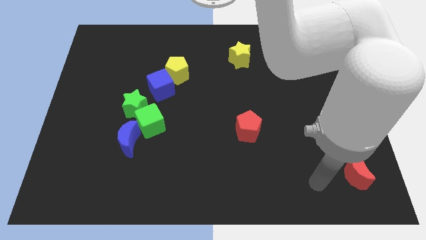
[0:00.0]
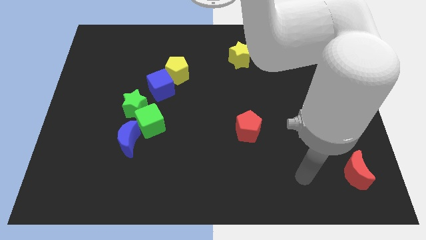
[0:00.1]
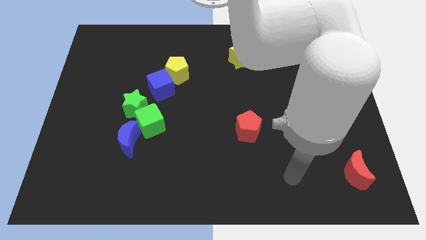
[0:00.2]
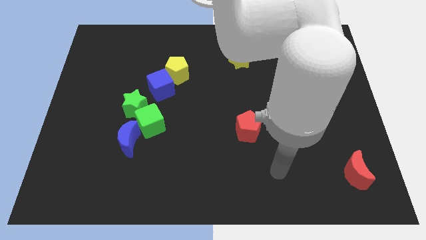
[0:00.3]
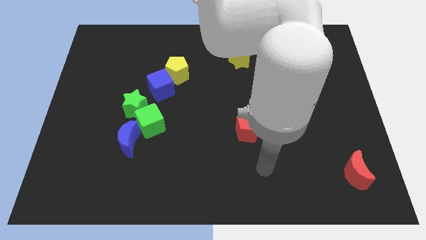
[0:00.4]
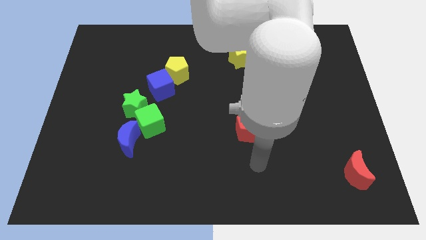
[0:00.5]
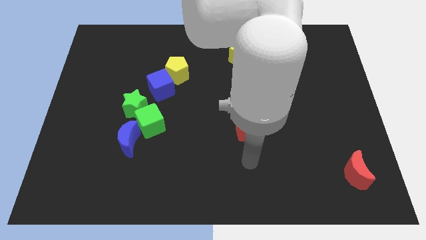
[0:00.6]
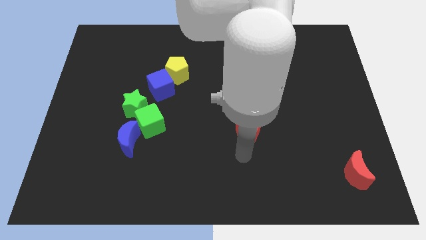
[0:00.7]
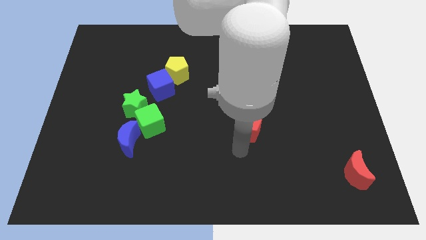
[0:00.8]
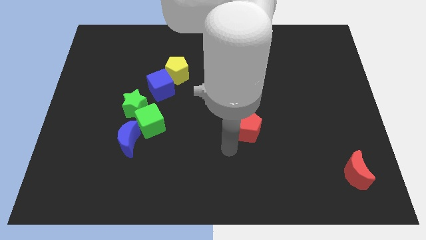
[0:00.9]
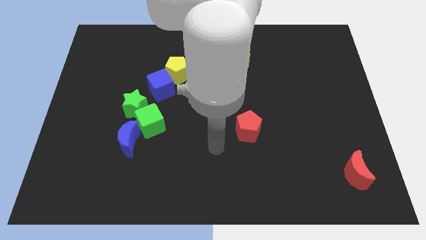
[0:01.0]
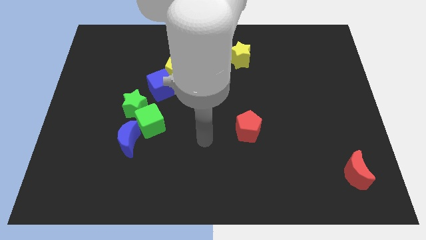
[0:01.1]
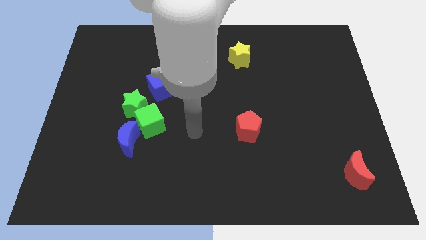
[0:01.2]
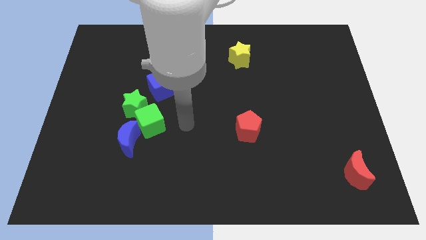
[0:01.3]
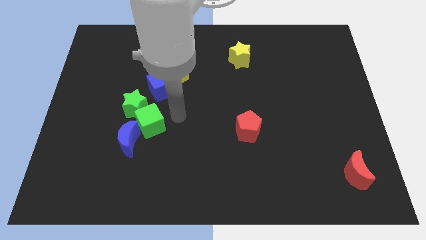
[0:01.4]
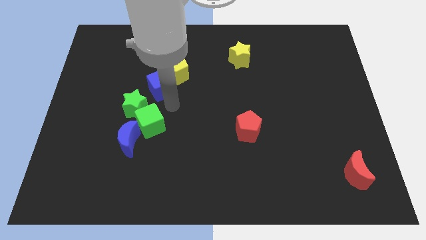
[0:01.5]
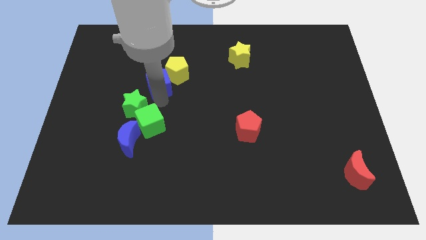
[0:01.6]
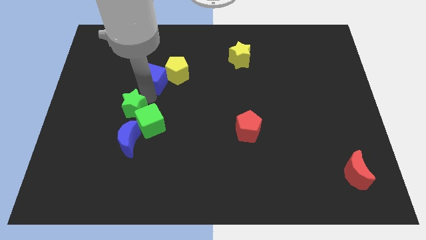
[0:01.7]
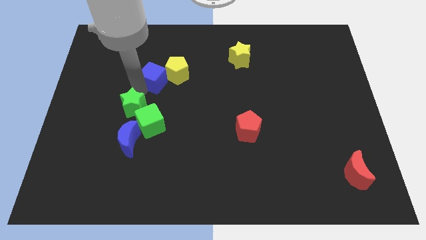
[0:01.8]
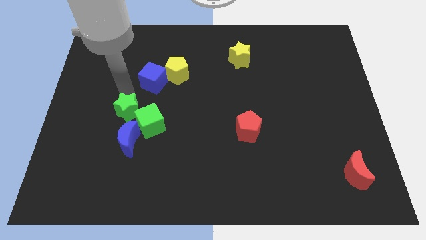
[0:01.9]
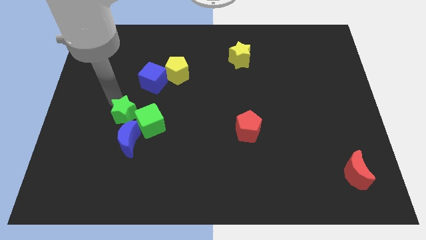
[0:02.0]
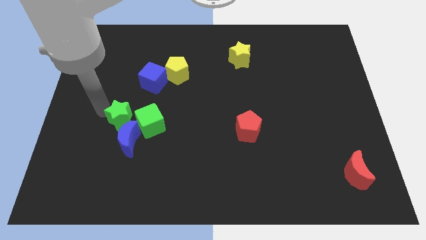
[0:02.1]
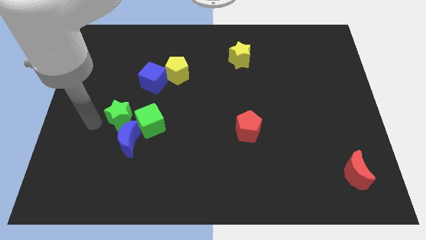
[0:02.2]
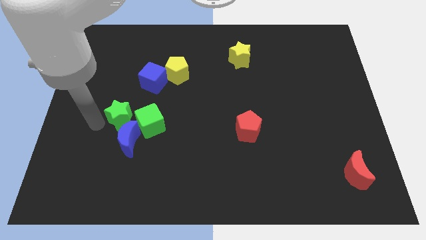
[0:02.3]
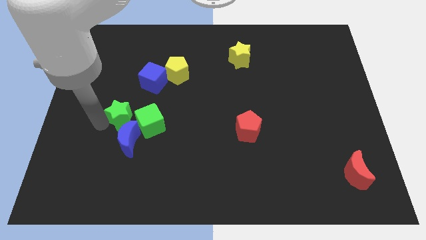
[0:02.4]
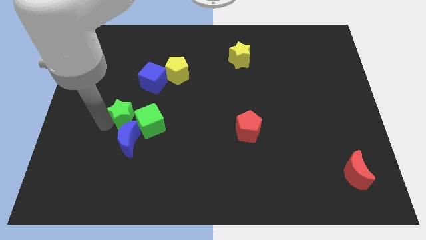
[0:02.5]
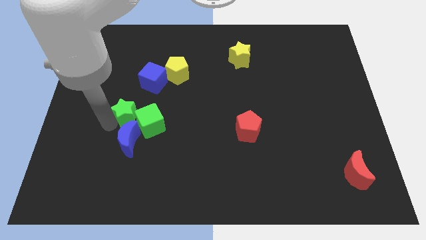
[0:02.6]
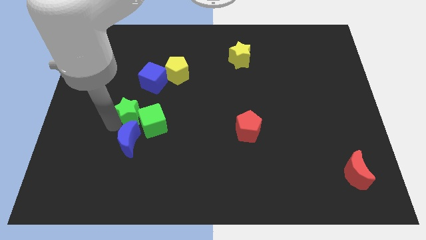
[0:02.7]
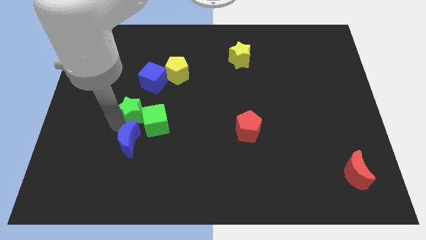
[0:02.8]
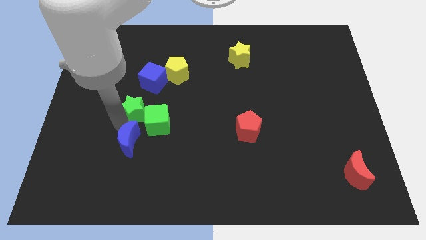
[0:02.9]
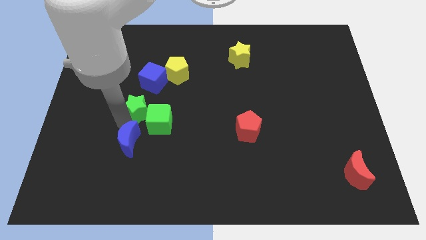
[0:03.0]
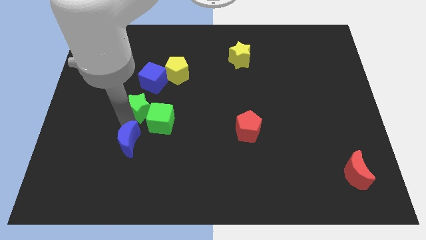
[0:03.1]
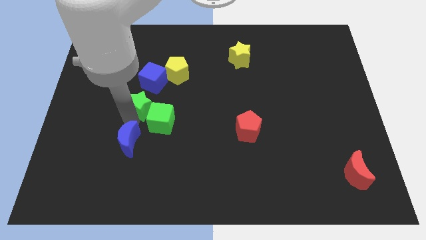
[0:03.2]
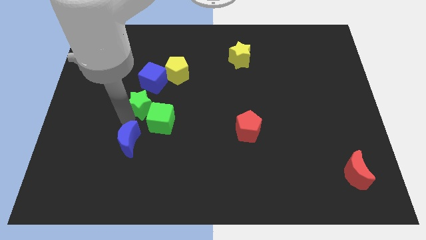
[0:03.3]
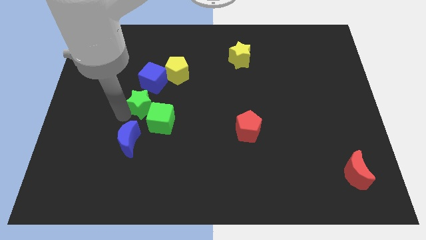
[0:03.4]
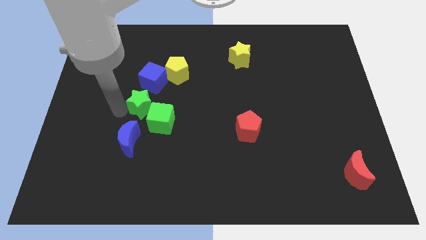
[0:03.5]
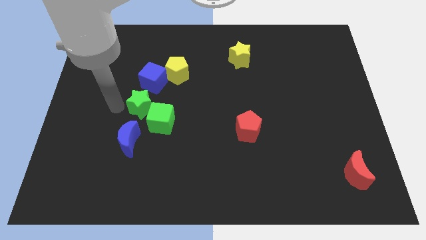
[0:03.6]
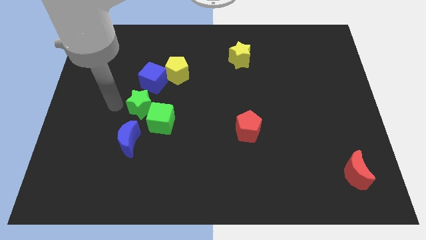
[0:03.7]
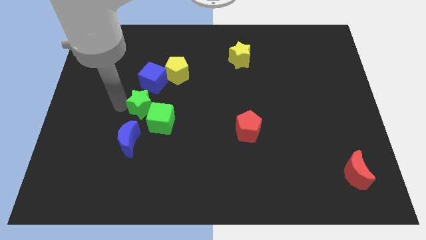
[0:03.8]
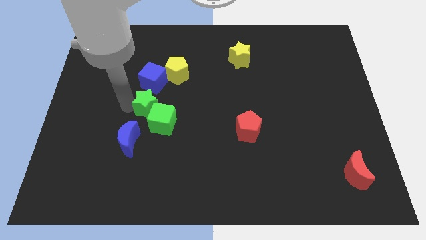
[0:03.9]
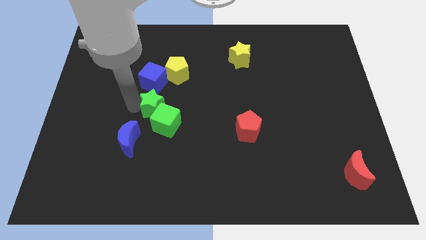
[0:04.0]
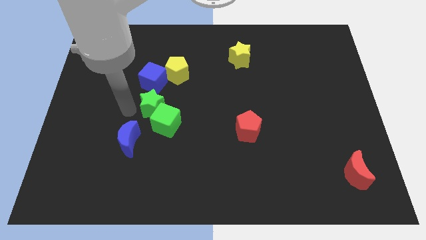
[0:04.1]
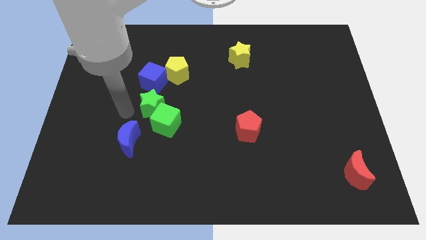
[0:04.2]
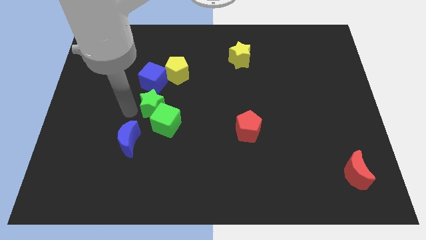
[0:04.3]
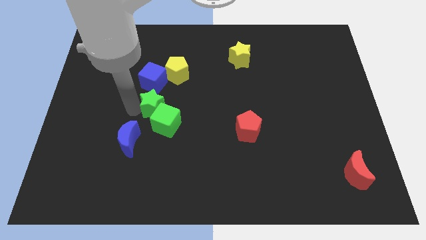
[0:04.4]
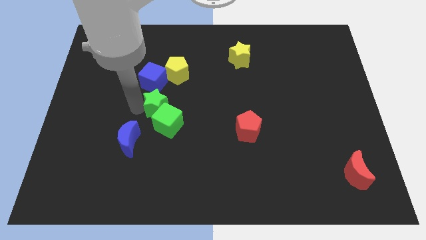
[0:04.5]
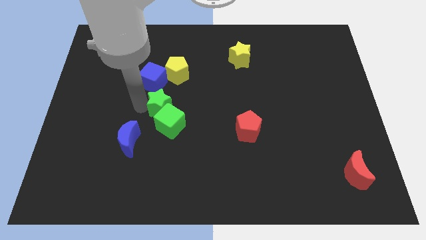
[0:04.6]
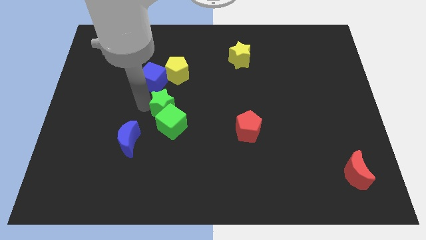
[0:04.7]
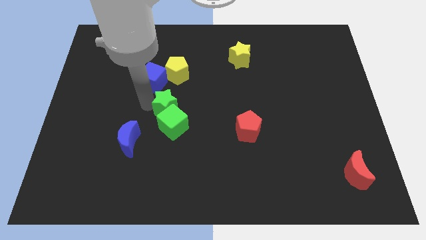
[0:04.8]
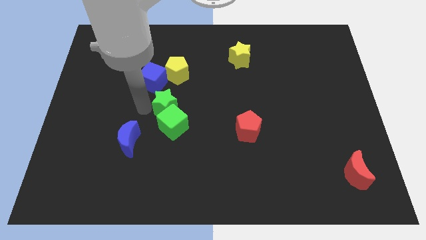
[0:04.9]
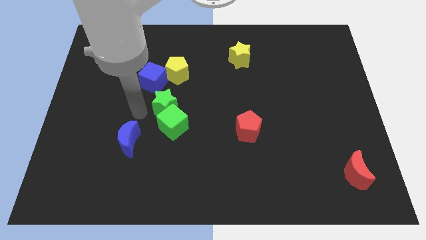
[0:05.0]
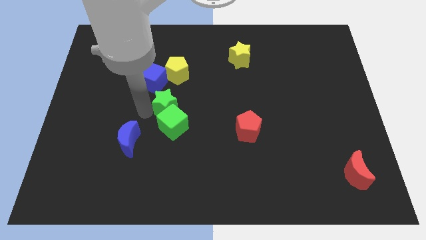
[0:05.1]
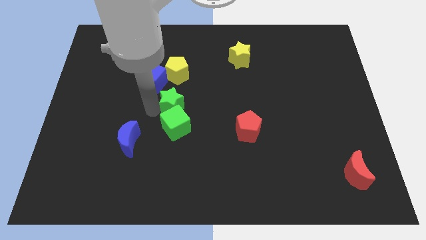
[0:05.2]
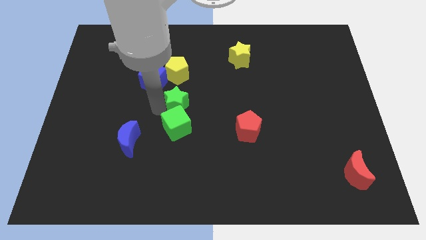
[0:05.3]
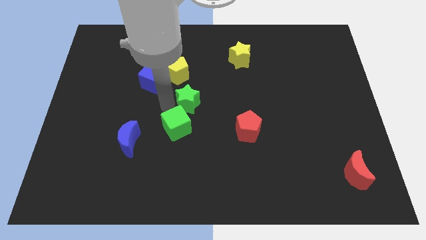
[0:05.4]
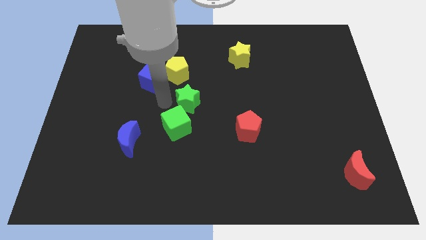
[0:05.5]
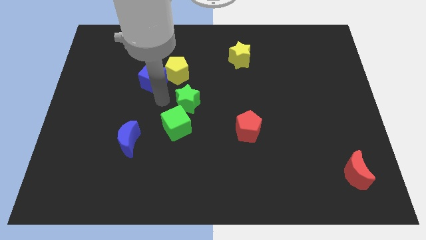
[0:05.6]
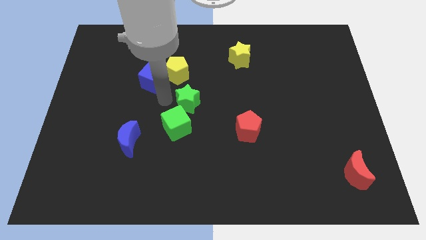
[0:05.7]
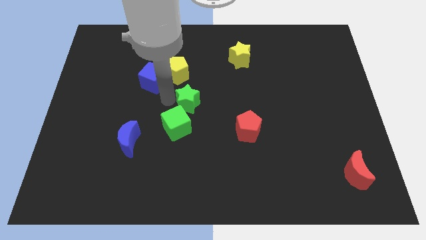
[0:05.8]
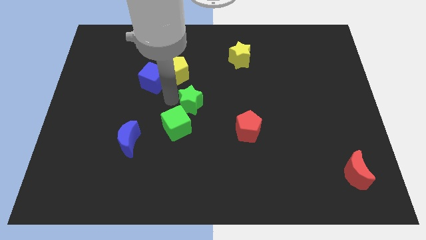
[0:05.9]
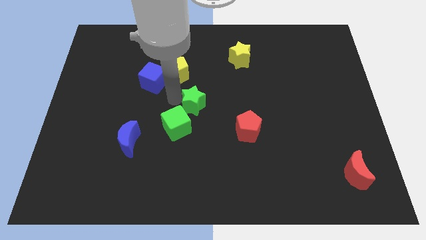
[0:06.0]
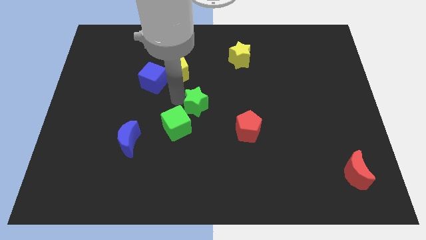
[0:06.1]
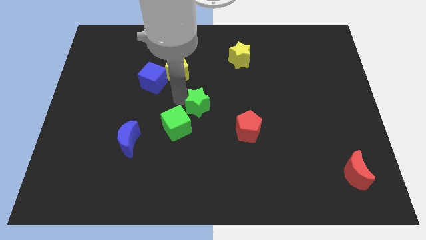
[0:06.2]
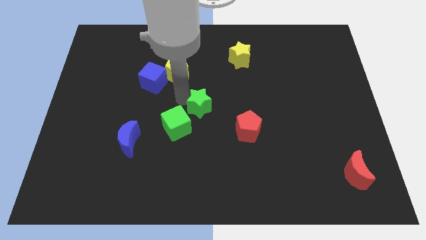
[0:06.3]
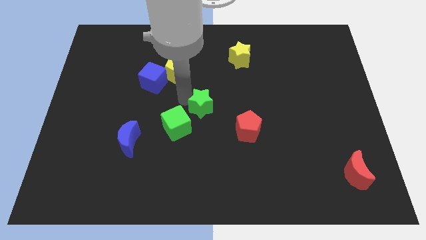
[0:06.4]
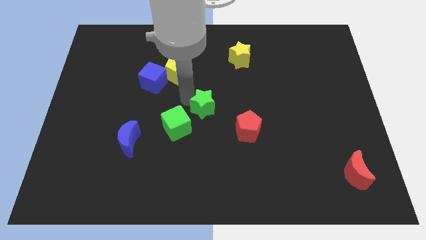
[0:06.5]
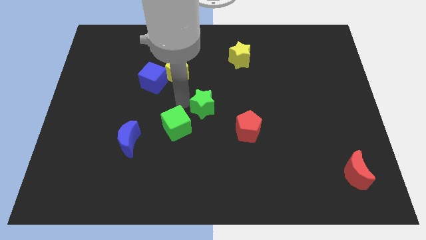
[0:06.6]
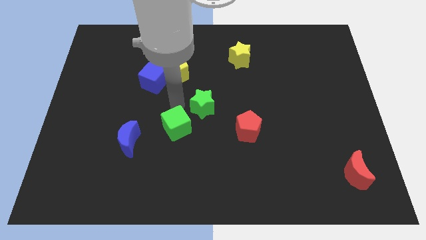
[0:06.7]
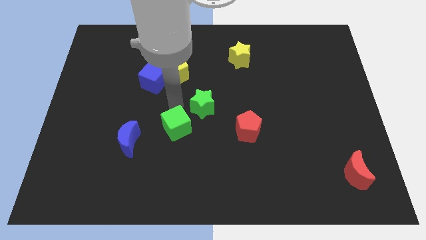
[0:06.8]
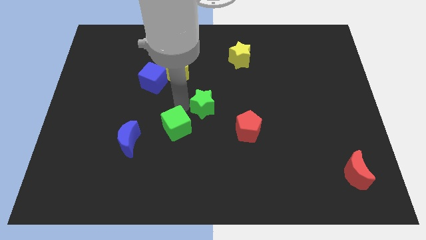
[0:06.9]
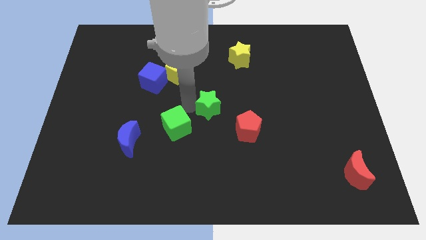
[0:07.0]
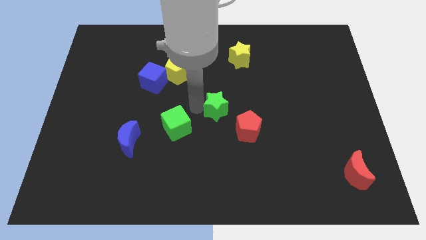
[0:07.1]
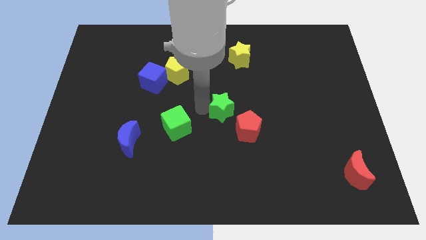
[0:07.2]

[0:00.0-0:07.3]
push the green star right

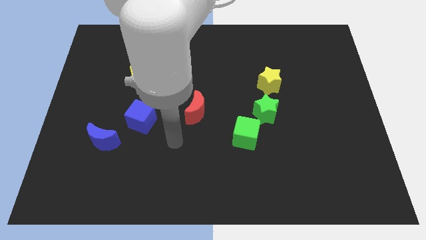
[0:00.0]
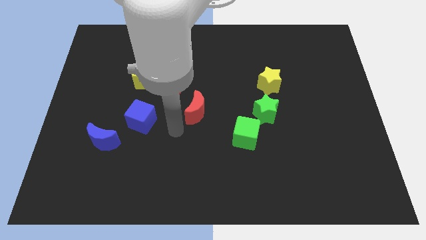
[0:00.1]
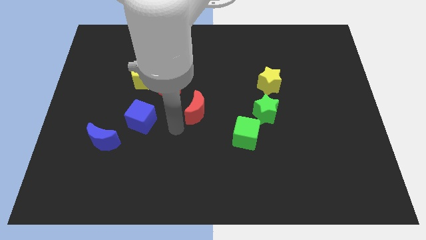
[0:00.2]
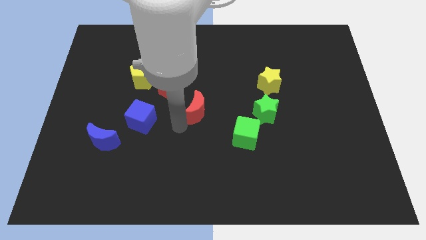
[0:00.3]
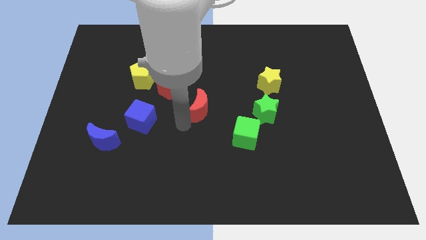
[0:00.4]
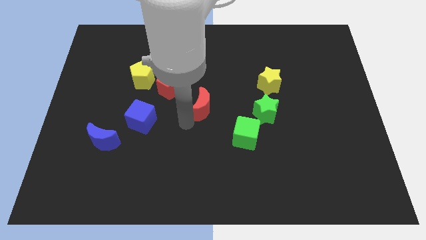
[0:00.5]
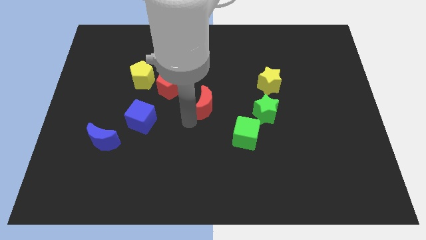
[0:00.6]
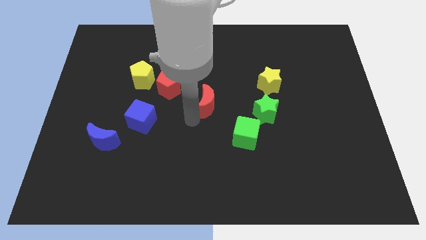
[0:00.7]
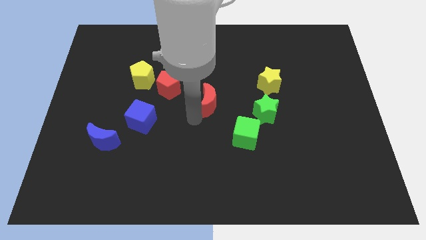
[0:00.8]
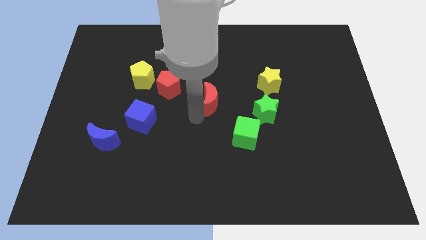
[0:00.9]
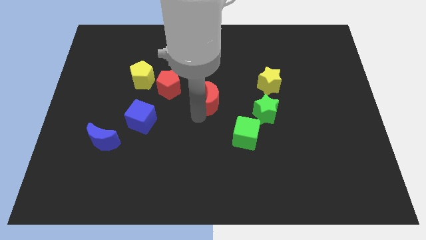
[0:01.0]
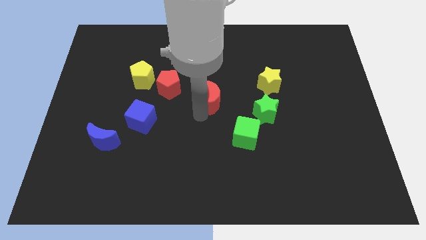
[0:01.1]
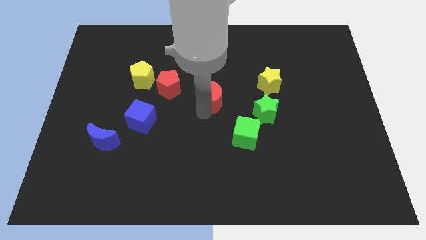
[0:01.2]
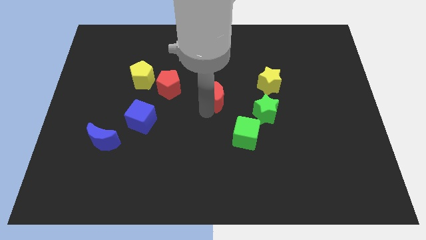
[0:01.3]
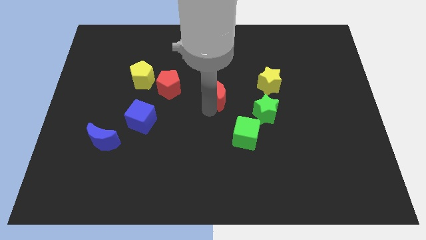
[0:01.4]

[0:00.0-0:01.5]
slightly move the red moon diagonally up and to the right
